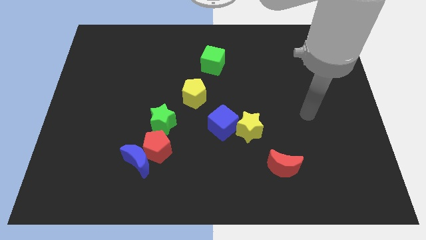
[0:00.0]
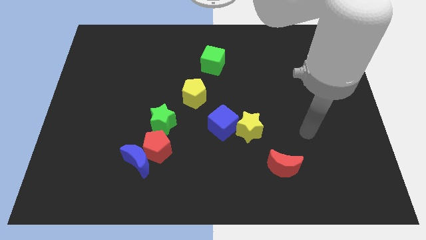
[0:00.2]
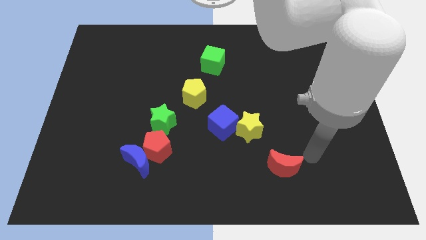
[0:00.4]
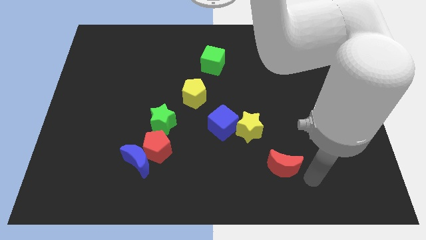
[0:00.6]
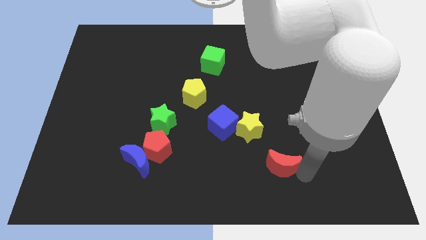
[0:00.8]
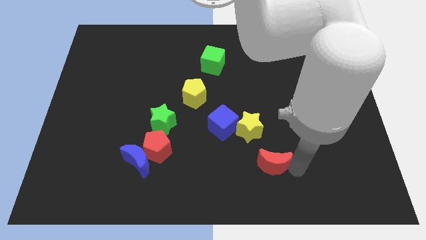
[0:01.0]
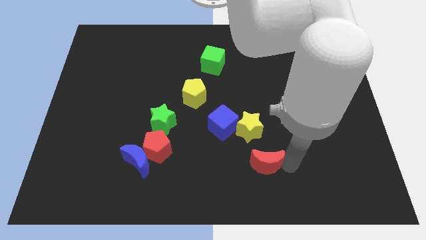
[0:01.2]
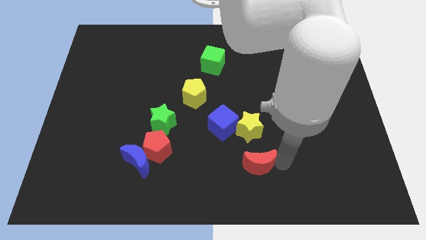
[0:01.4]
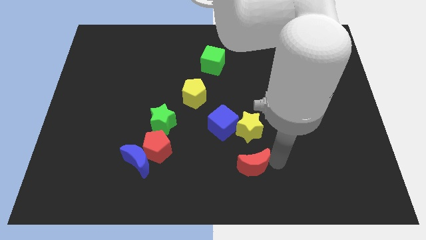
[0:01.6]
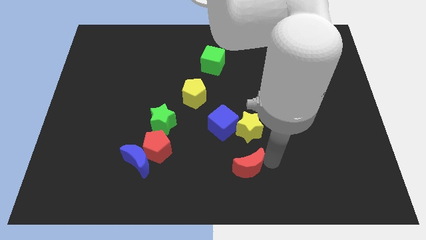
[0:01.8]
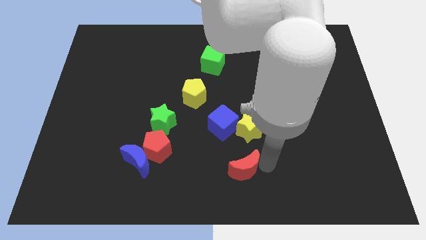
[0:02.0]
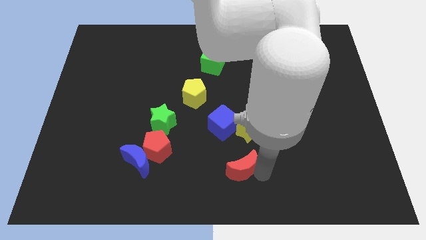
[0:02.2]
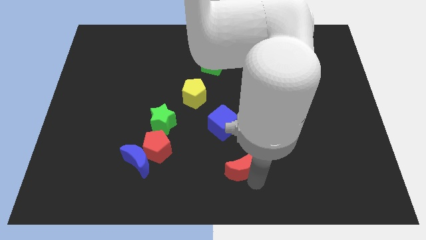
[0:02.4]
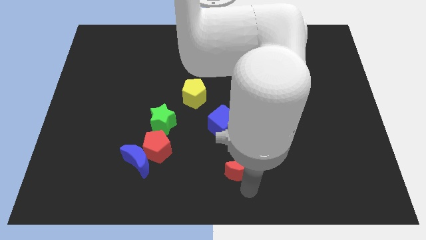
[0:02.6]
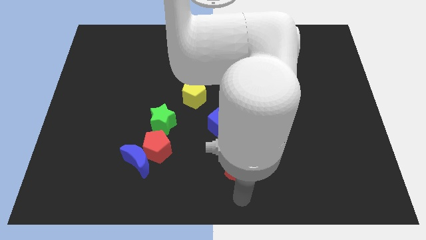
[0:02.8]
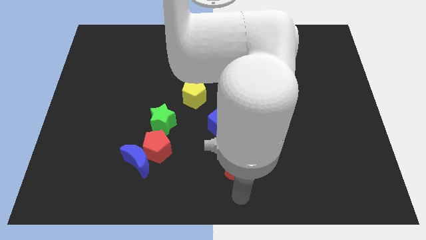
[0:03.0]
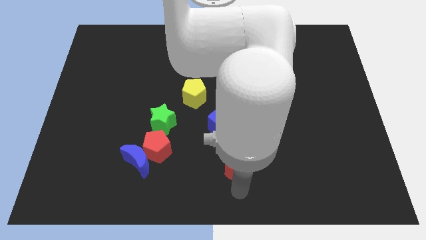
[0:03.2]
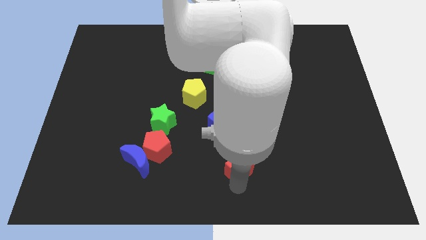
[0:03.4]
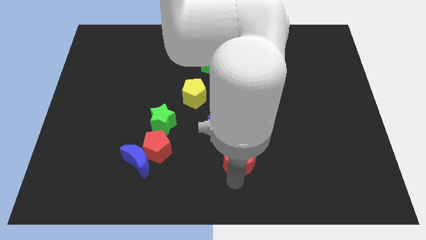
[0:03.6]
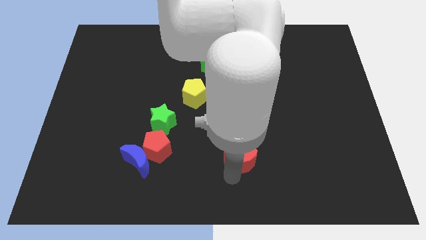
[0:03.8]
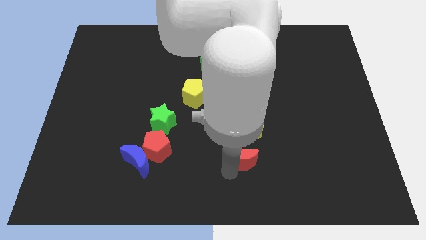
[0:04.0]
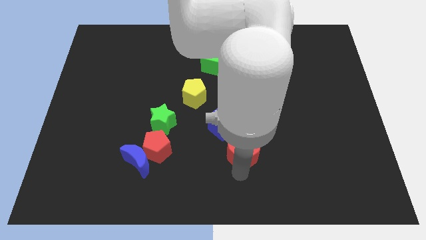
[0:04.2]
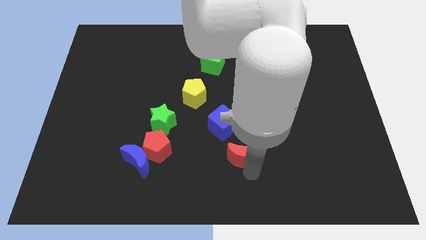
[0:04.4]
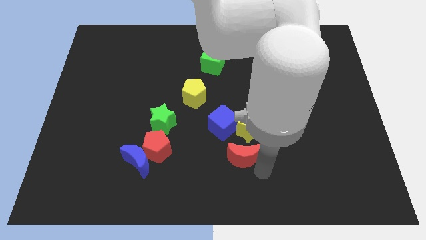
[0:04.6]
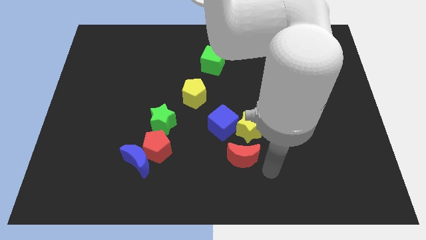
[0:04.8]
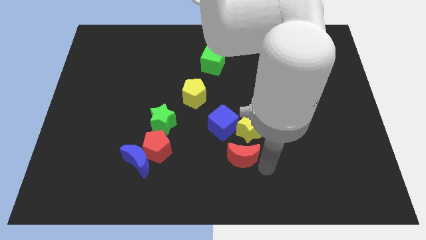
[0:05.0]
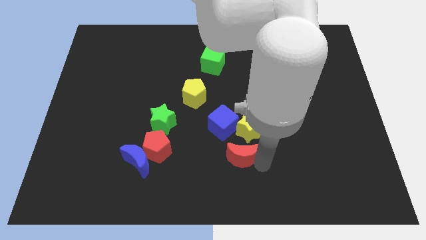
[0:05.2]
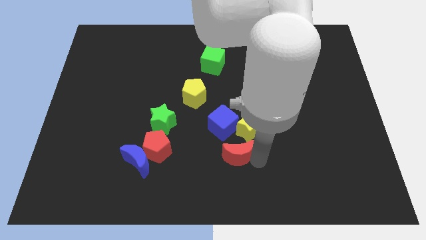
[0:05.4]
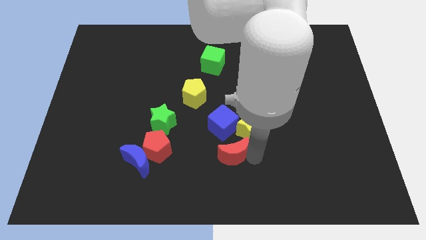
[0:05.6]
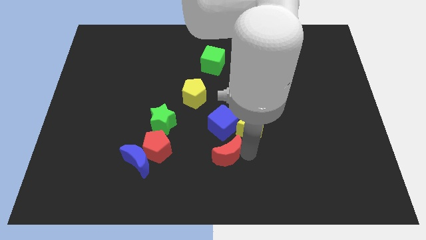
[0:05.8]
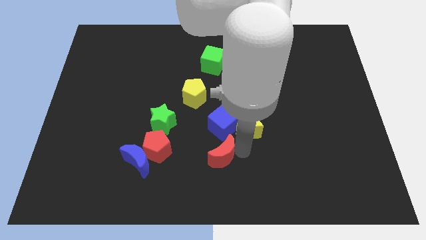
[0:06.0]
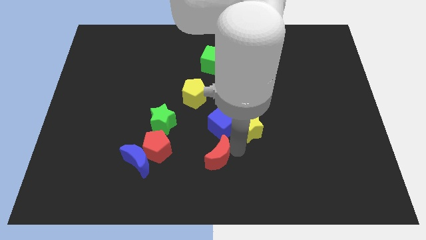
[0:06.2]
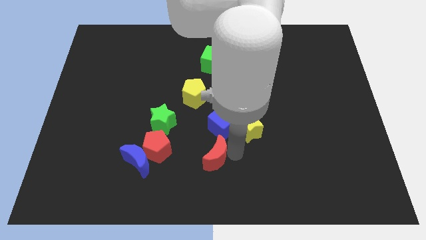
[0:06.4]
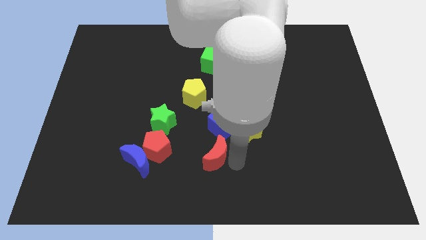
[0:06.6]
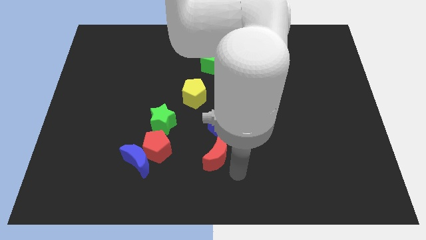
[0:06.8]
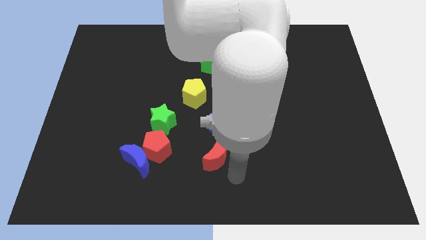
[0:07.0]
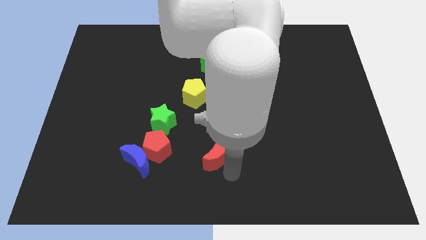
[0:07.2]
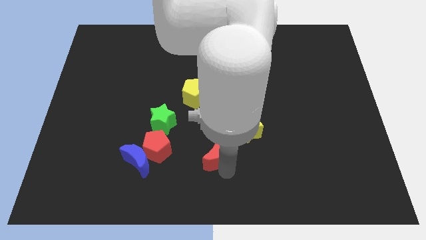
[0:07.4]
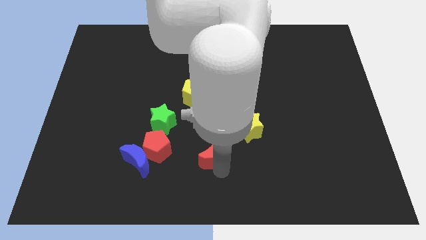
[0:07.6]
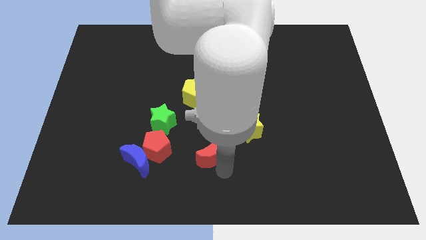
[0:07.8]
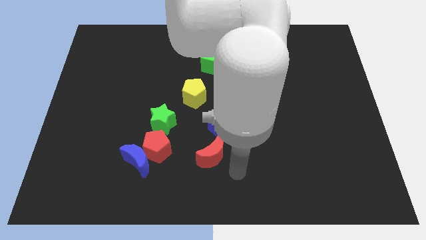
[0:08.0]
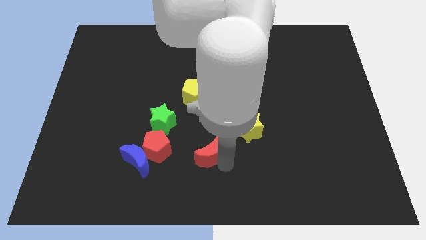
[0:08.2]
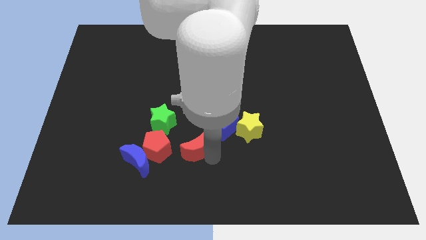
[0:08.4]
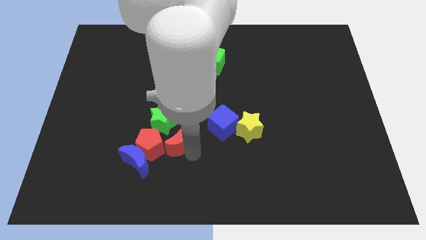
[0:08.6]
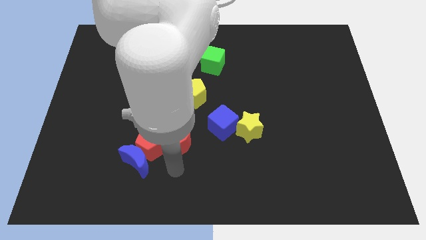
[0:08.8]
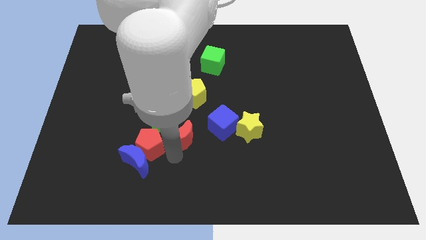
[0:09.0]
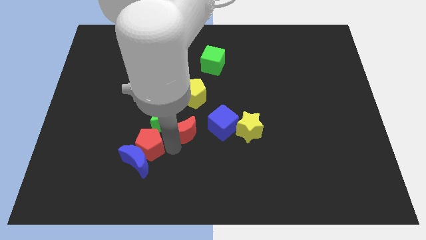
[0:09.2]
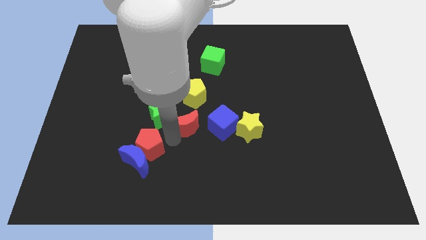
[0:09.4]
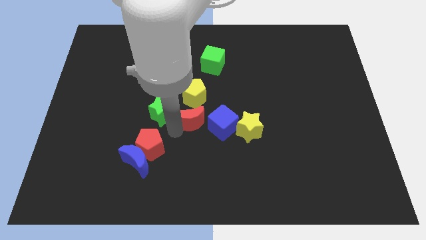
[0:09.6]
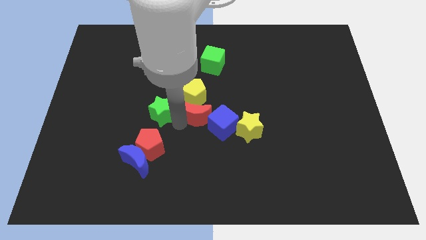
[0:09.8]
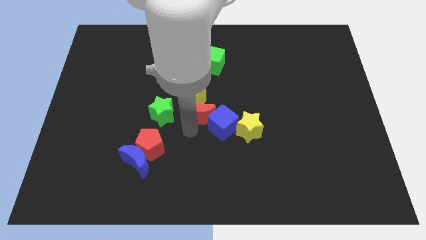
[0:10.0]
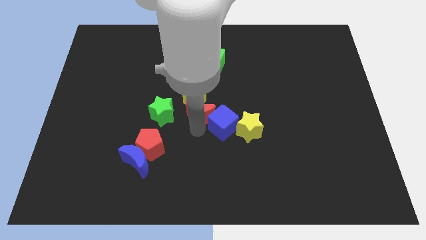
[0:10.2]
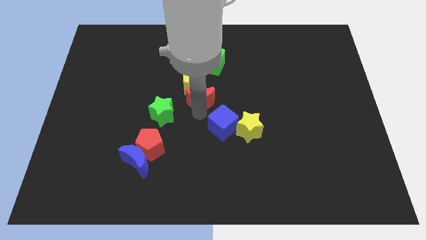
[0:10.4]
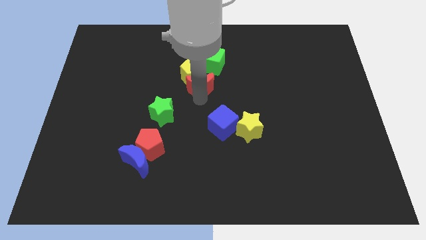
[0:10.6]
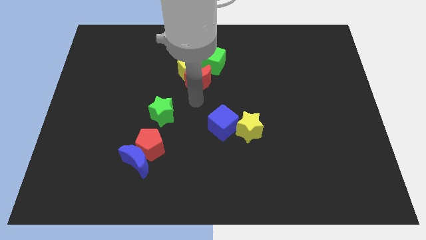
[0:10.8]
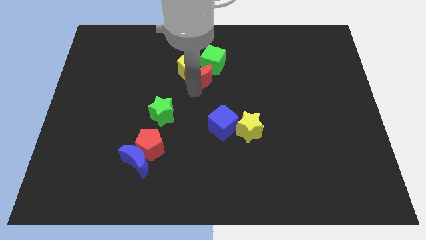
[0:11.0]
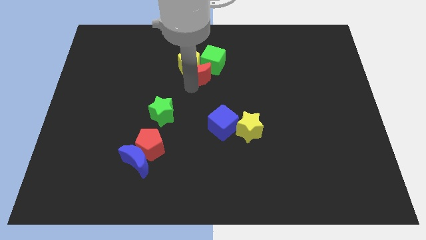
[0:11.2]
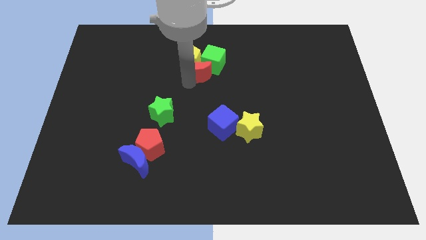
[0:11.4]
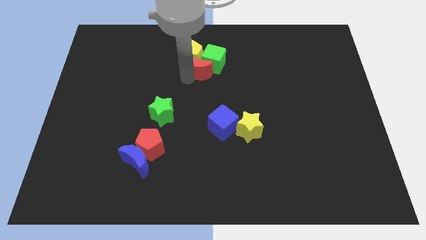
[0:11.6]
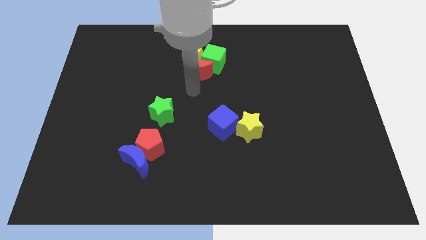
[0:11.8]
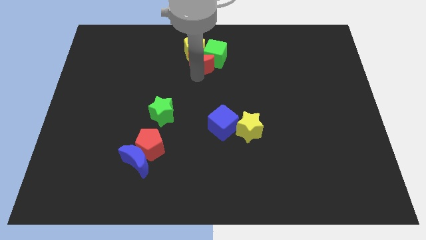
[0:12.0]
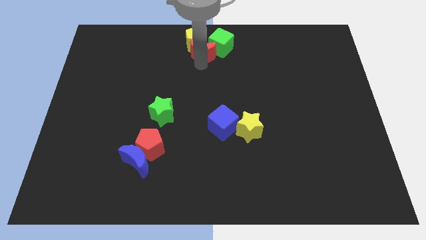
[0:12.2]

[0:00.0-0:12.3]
move the red moon to the top side
